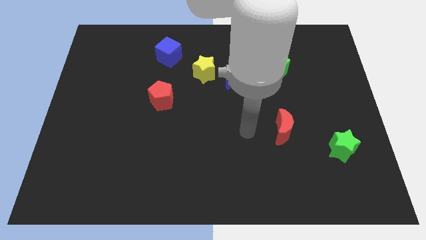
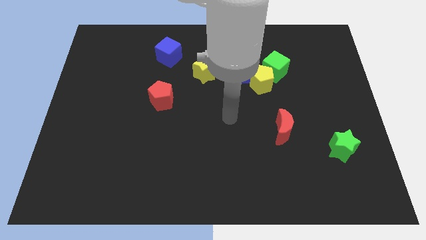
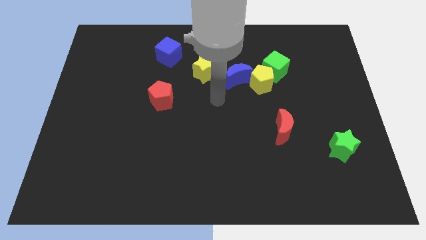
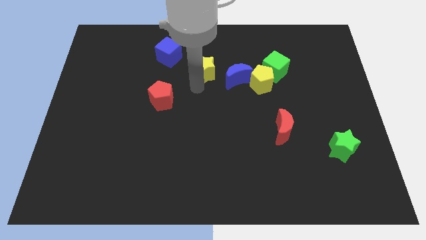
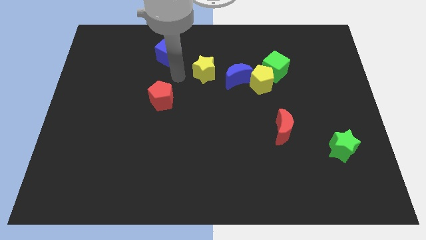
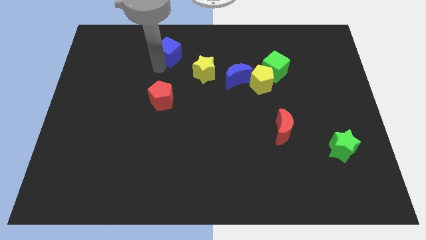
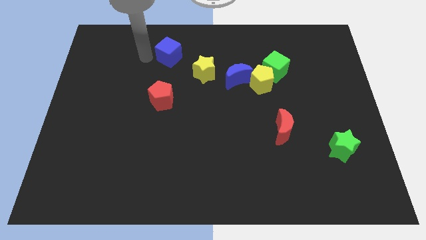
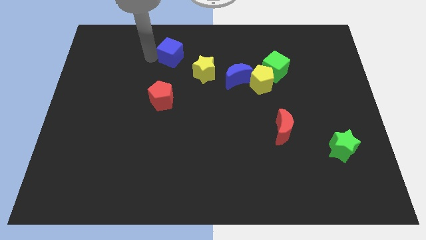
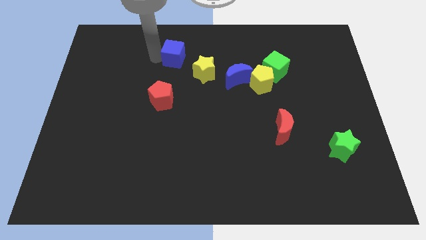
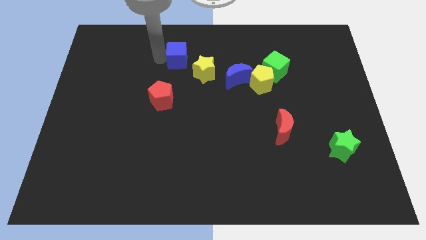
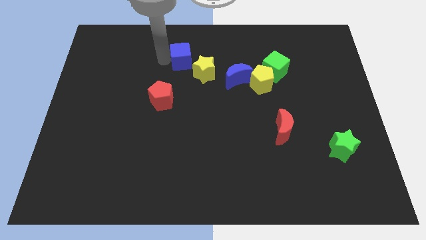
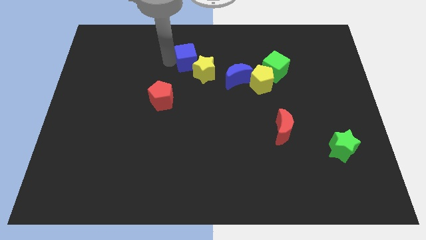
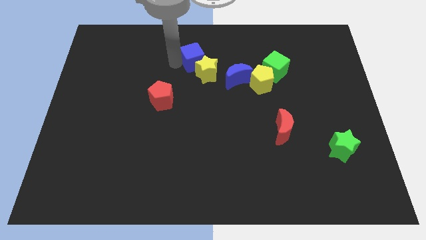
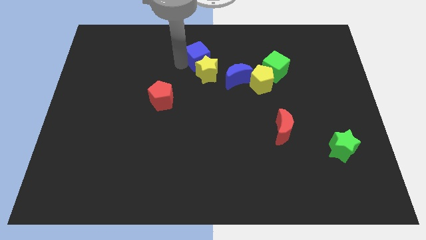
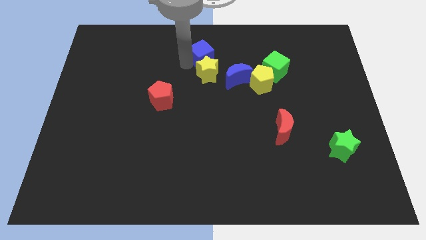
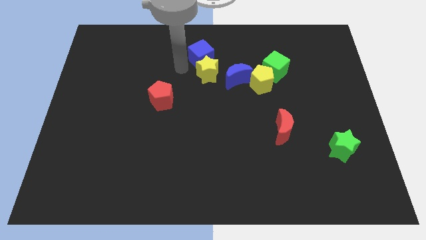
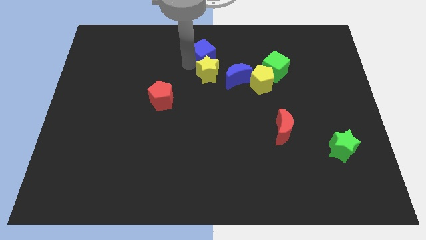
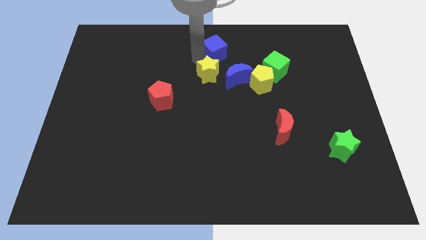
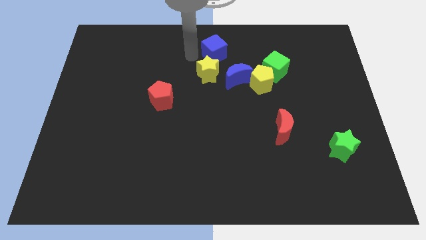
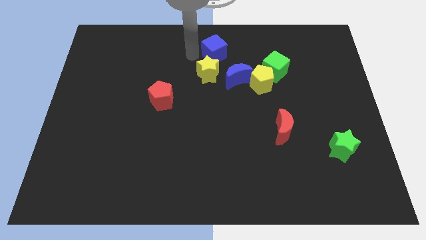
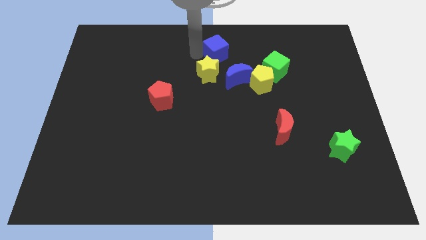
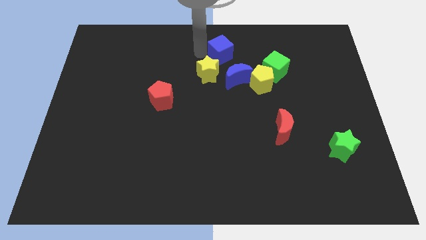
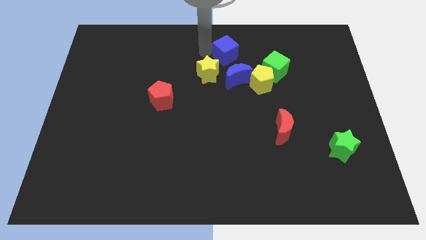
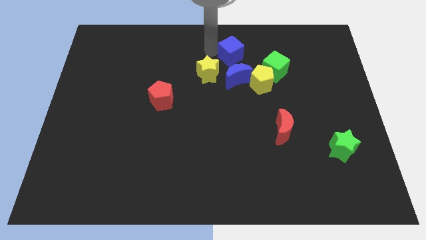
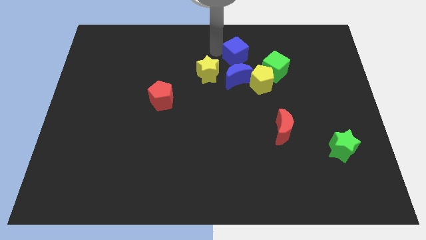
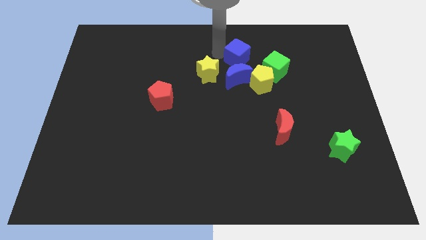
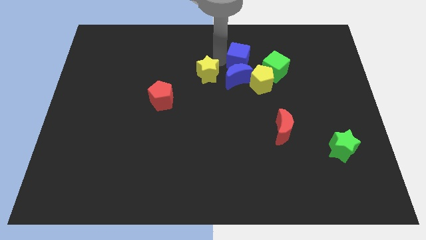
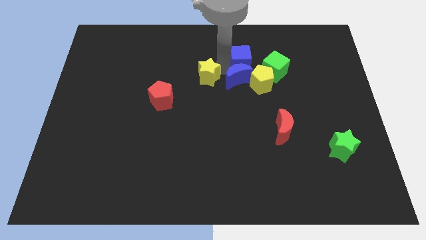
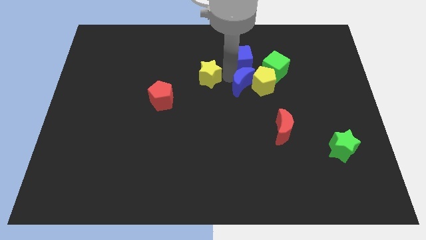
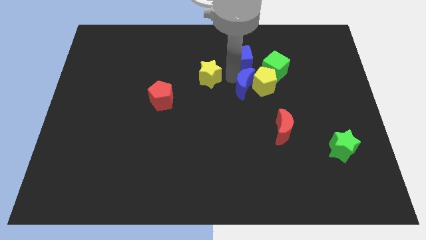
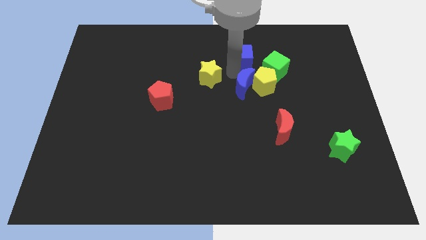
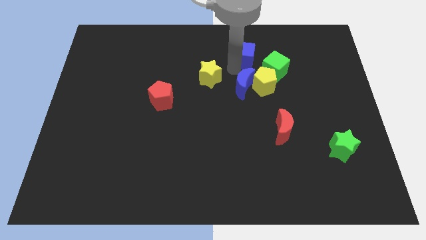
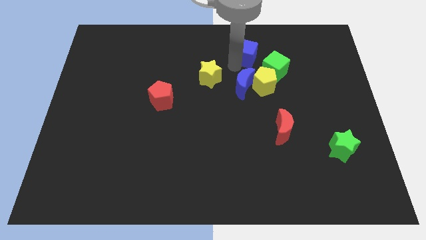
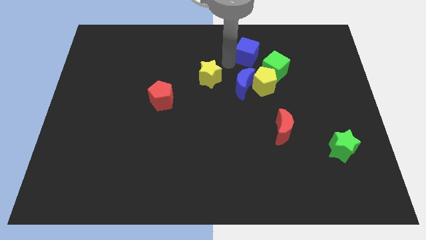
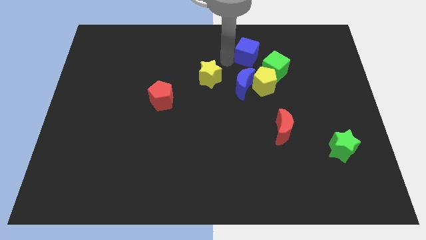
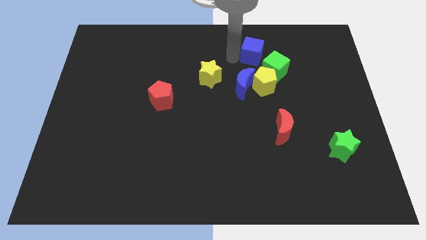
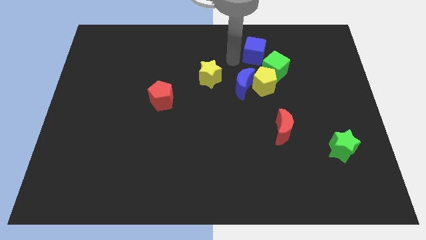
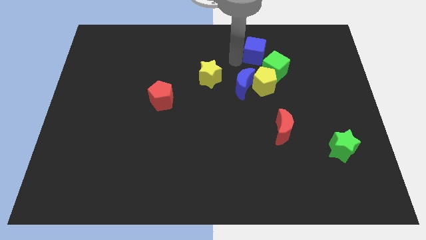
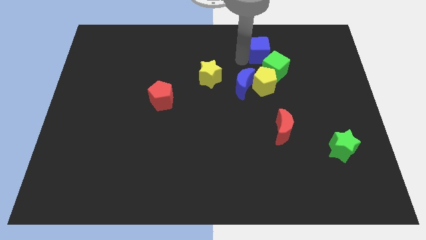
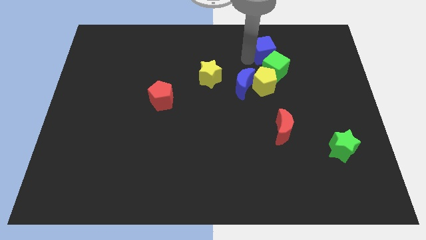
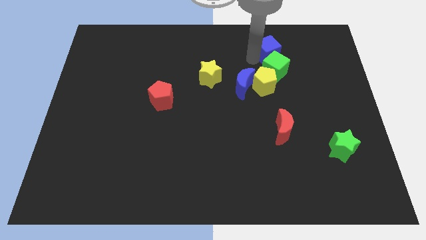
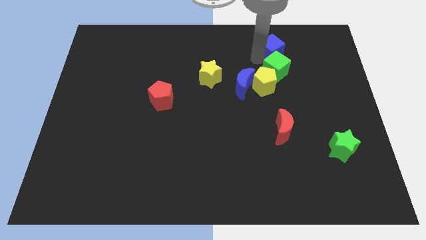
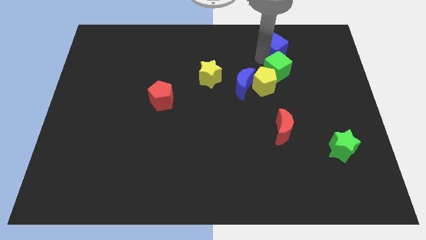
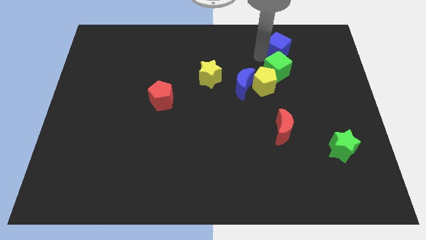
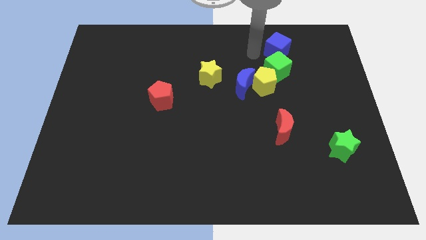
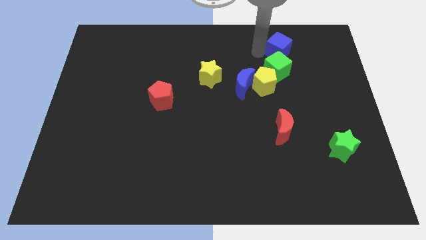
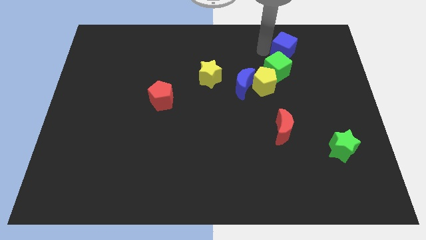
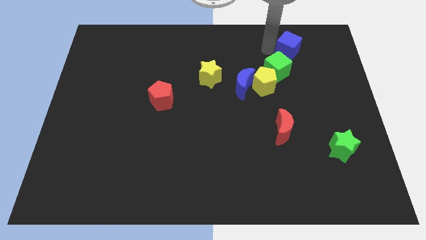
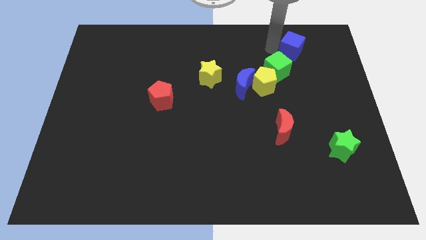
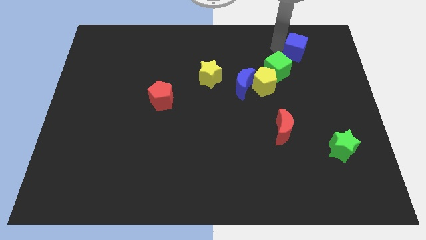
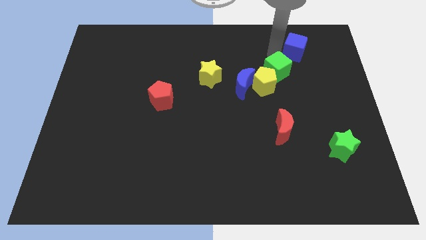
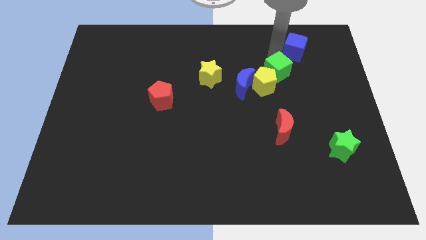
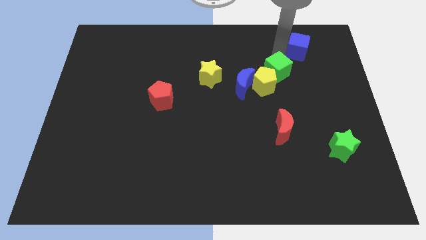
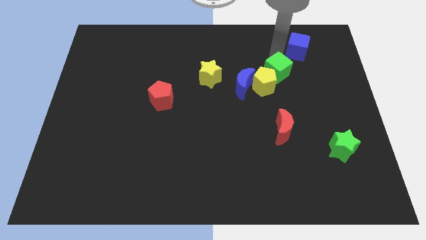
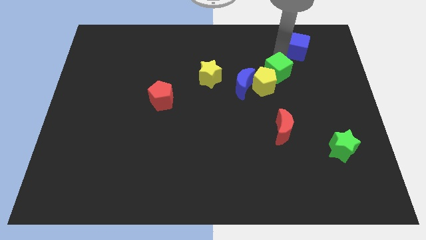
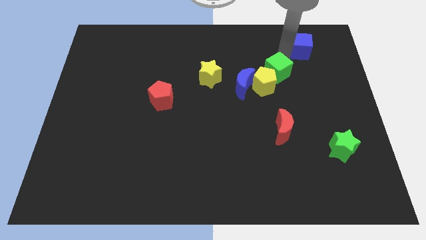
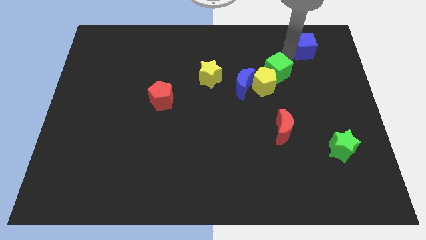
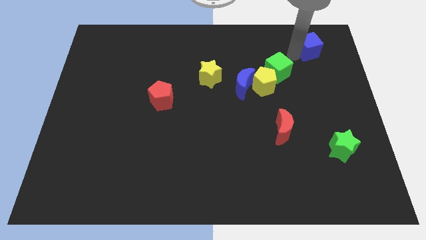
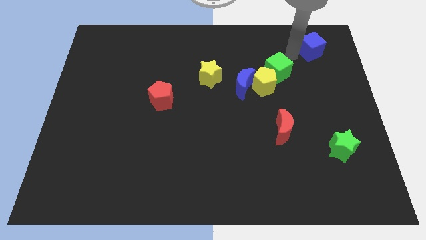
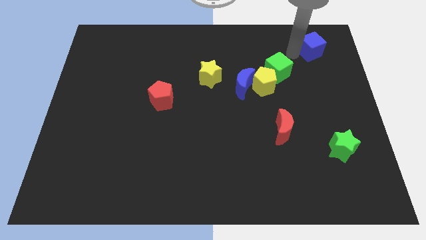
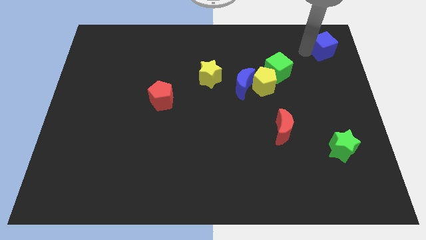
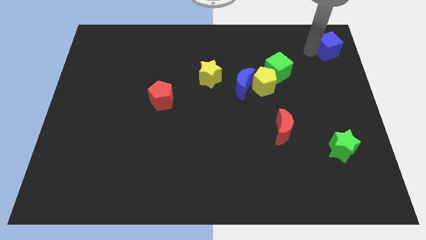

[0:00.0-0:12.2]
push the blue cube to the top right
